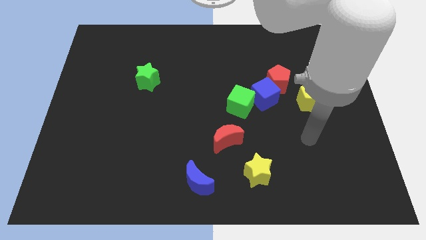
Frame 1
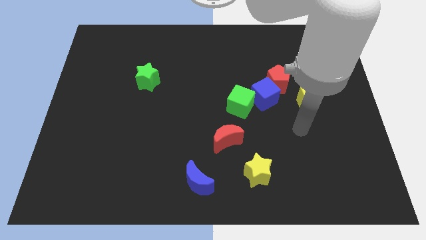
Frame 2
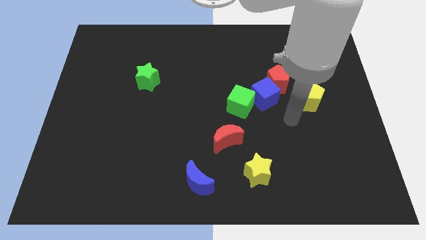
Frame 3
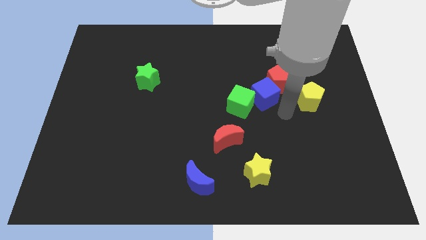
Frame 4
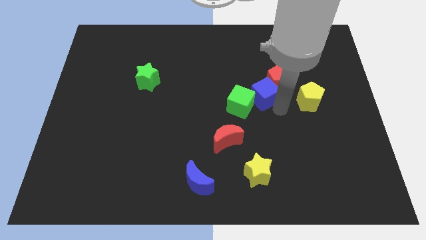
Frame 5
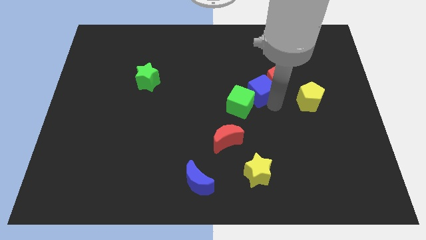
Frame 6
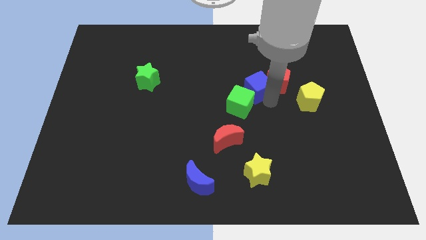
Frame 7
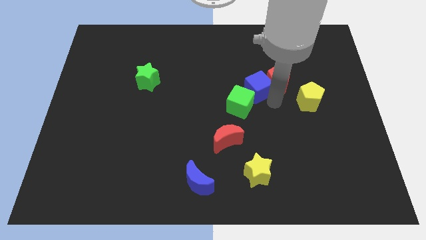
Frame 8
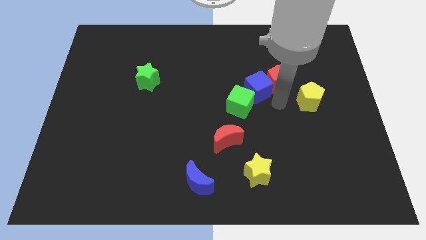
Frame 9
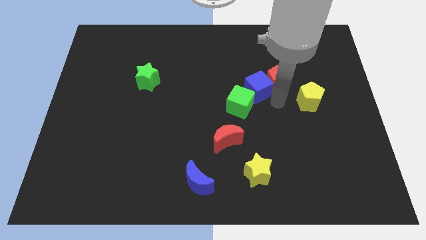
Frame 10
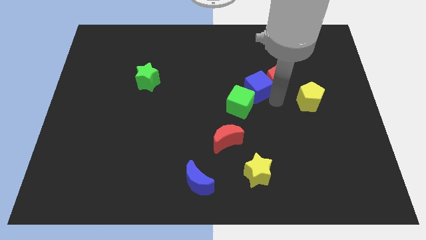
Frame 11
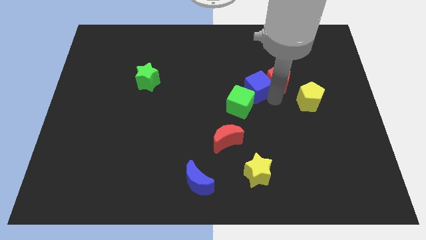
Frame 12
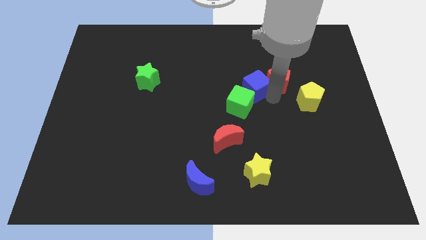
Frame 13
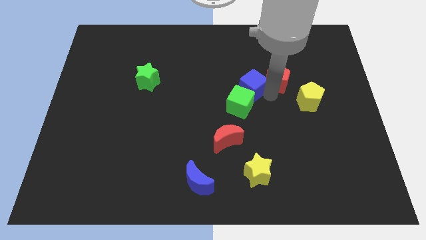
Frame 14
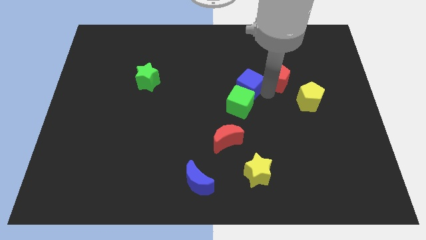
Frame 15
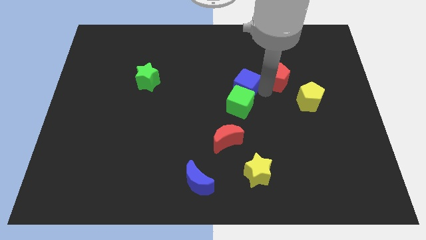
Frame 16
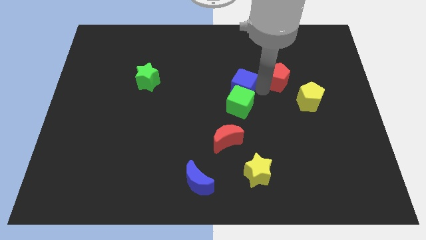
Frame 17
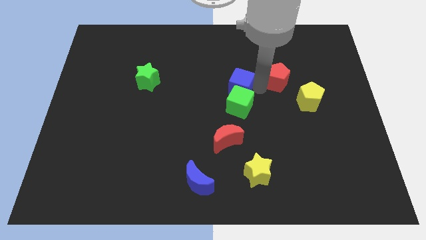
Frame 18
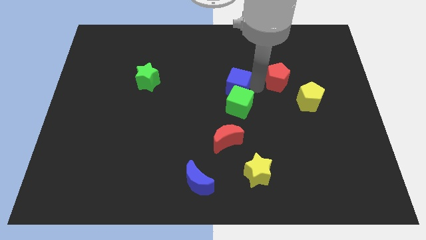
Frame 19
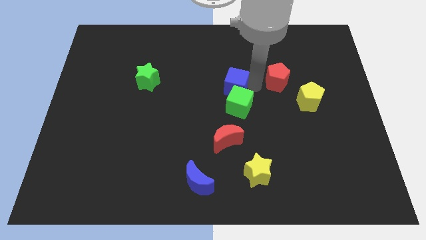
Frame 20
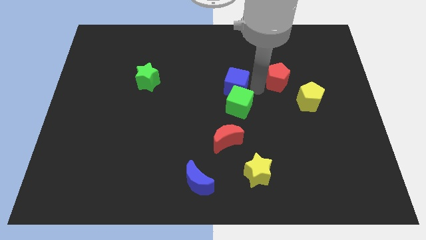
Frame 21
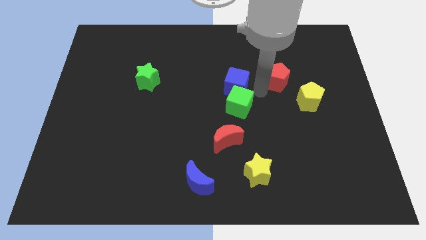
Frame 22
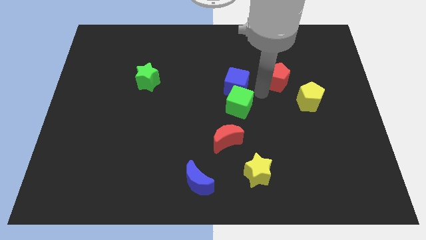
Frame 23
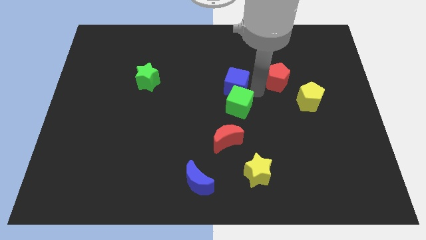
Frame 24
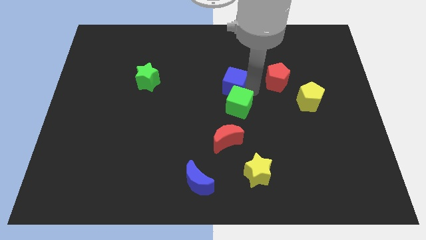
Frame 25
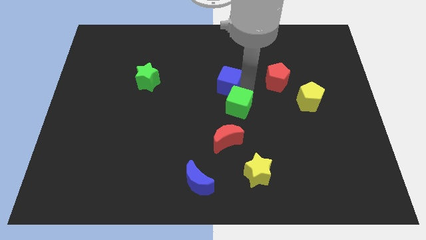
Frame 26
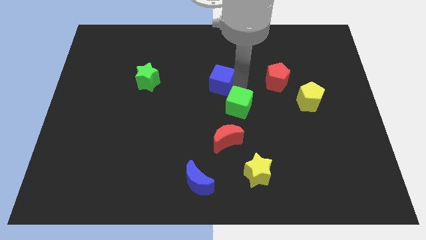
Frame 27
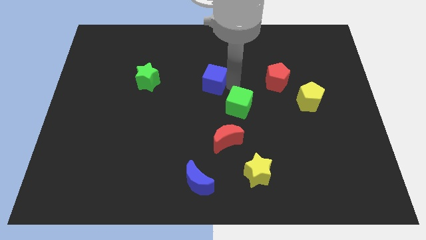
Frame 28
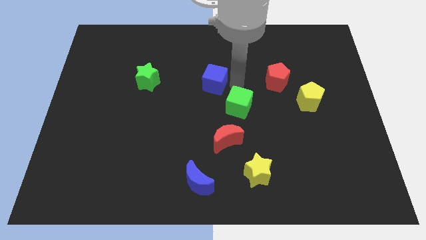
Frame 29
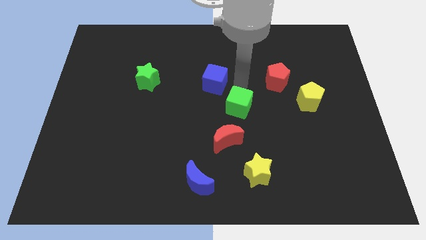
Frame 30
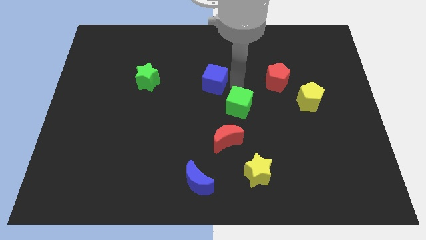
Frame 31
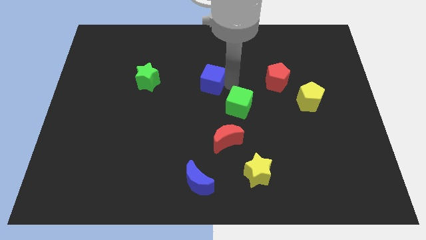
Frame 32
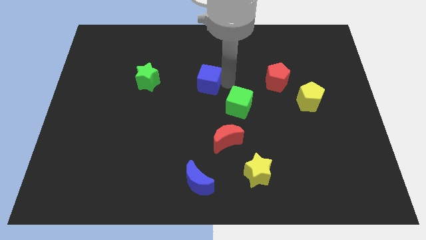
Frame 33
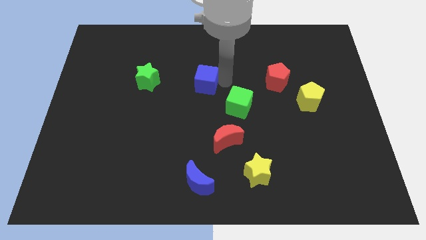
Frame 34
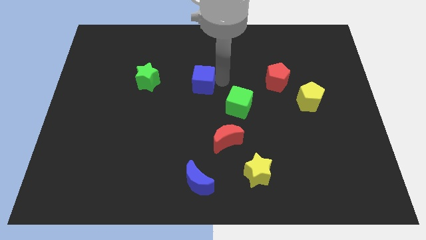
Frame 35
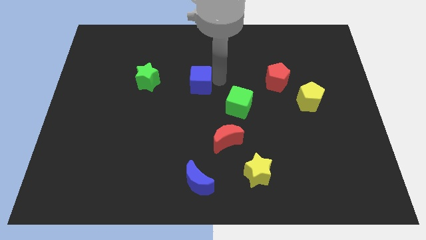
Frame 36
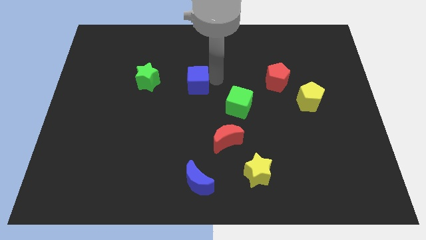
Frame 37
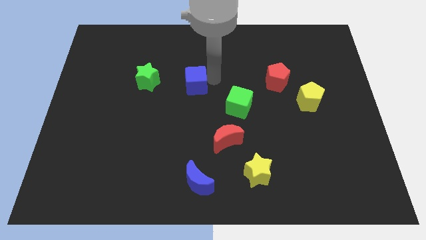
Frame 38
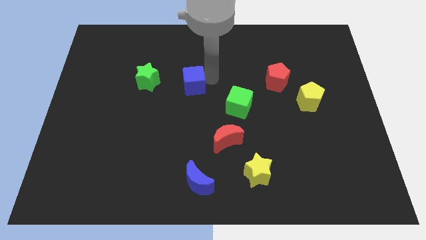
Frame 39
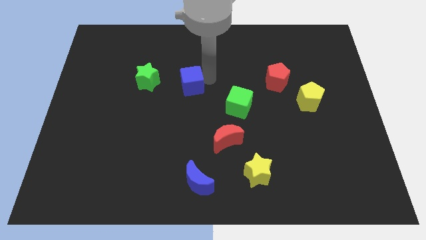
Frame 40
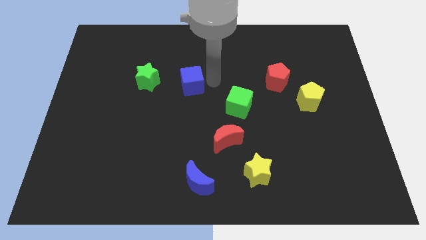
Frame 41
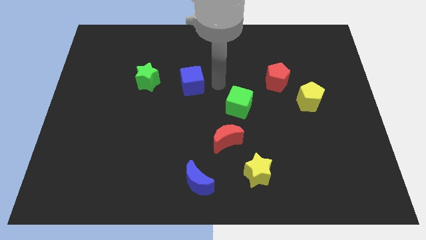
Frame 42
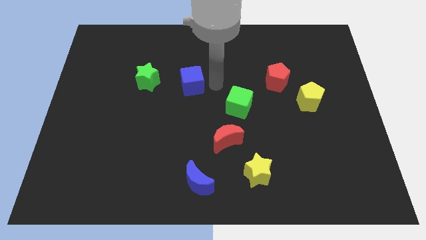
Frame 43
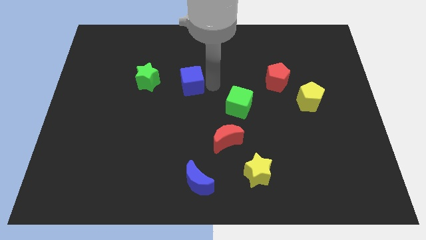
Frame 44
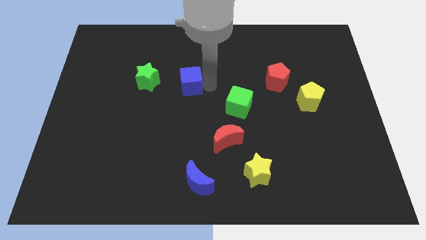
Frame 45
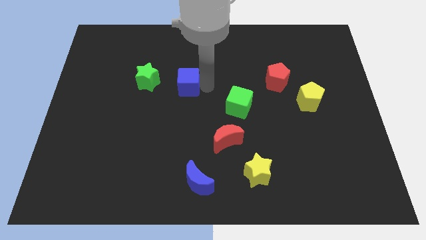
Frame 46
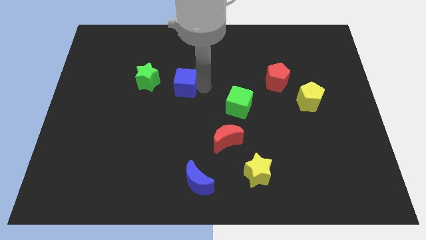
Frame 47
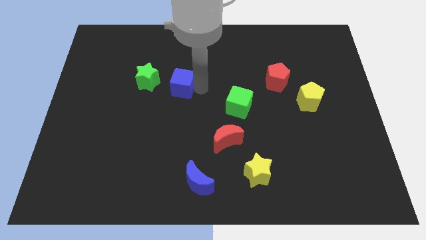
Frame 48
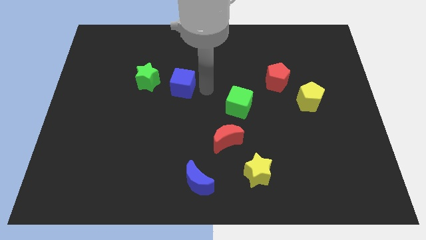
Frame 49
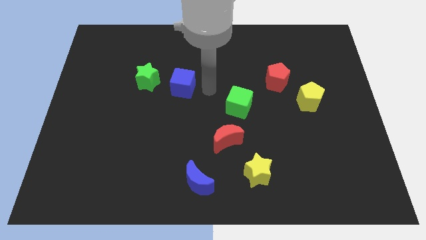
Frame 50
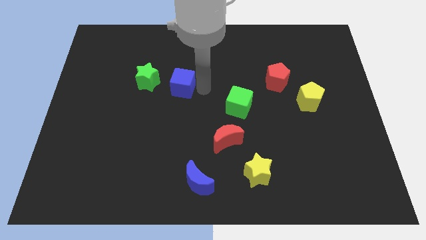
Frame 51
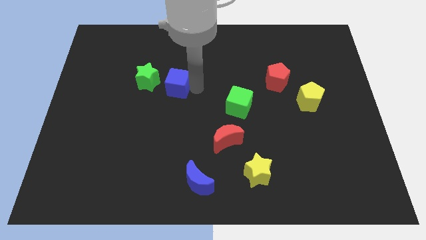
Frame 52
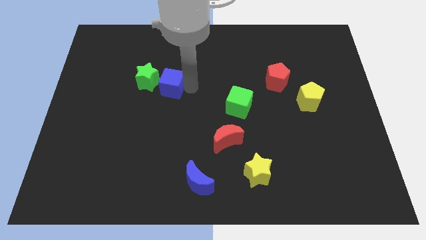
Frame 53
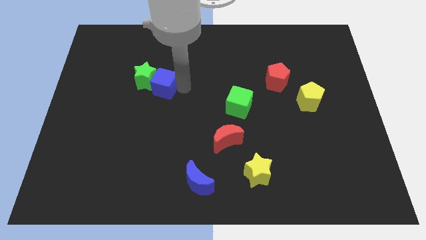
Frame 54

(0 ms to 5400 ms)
put the blue cube towards the green star
